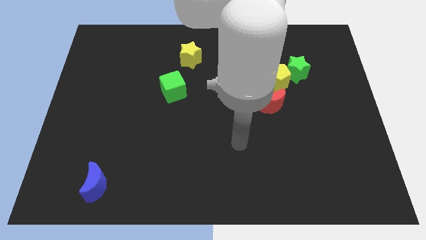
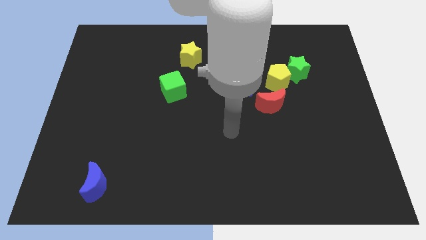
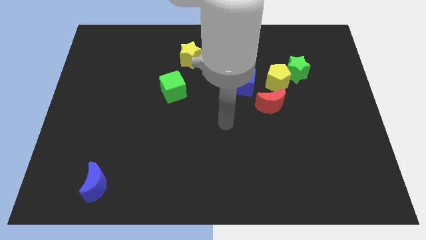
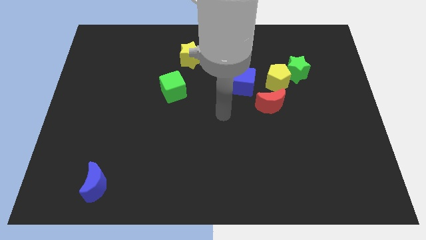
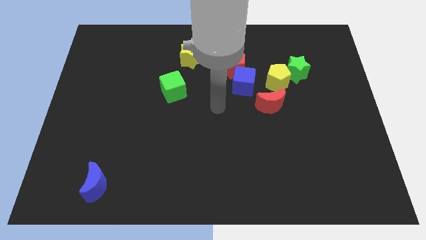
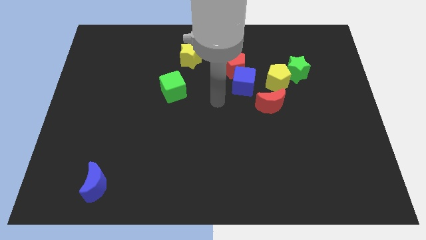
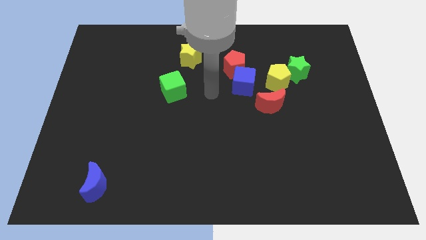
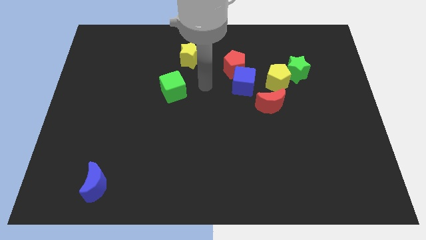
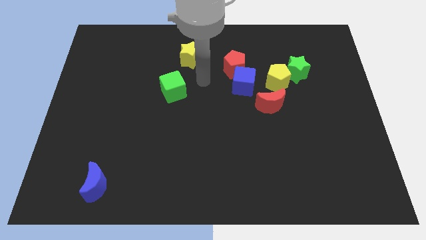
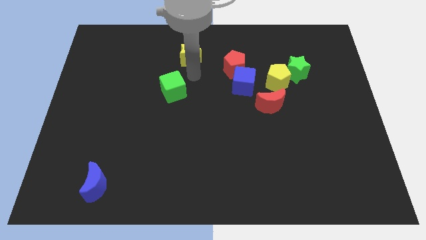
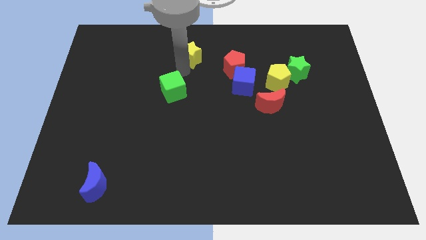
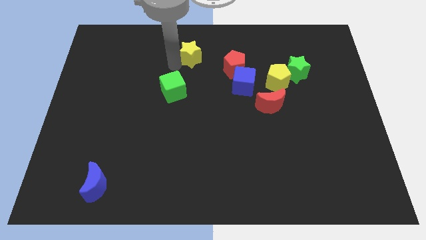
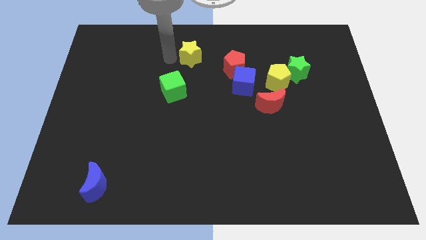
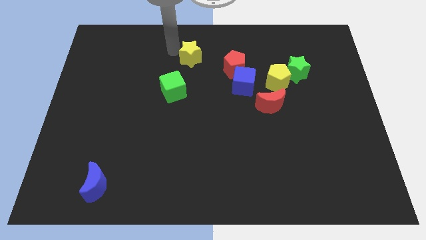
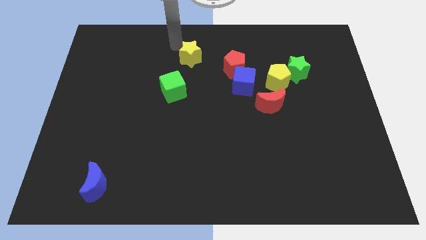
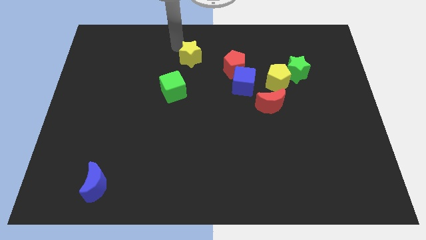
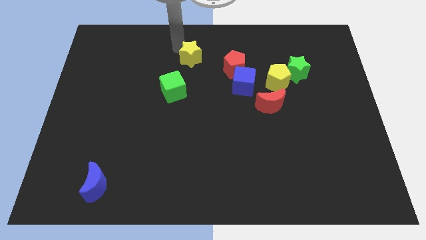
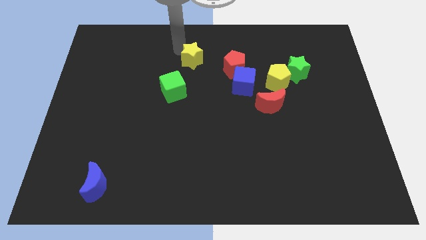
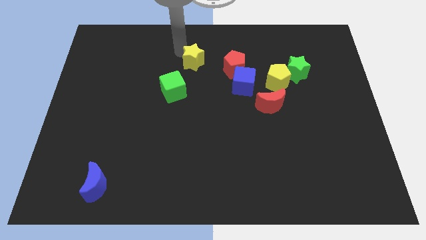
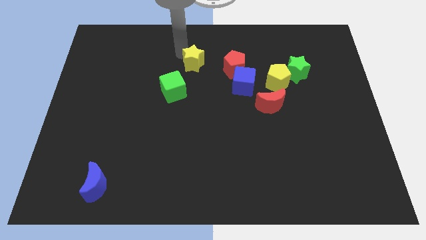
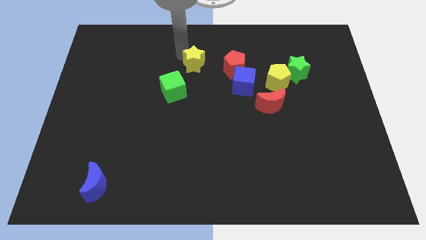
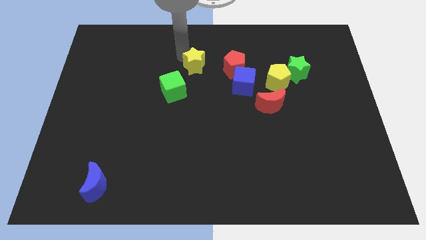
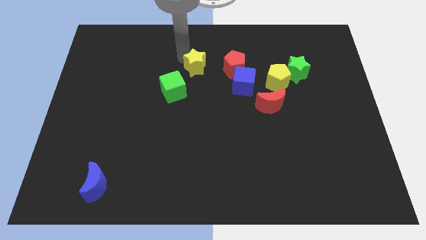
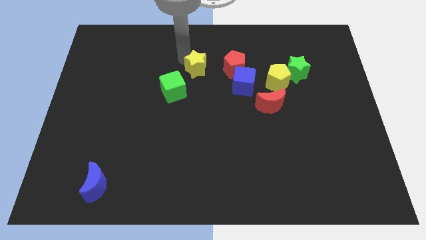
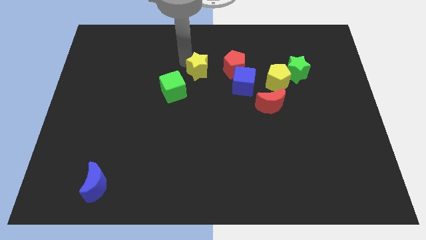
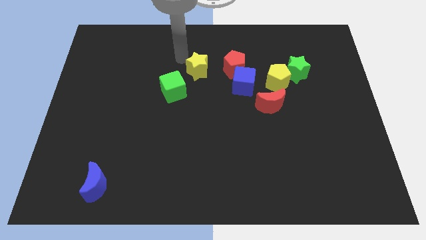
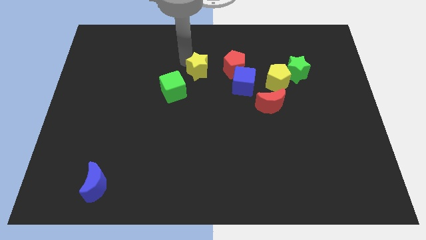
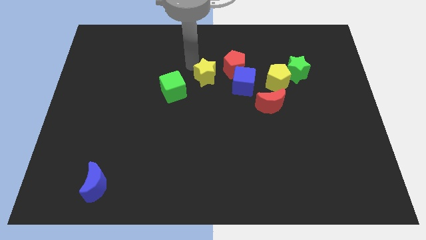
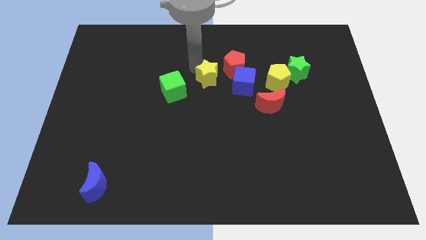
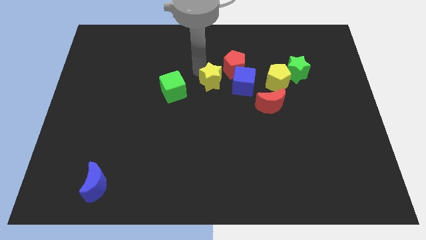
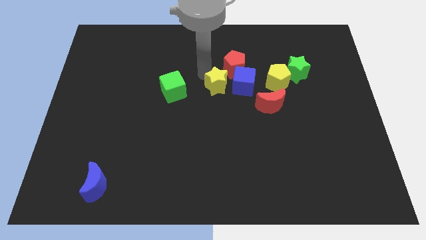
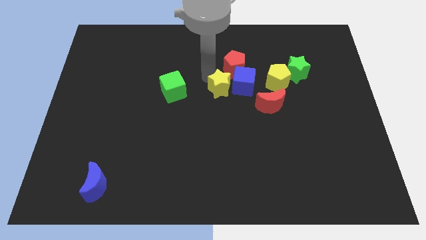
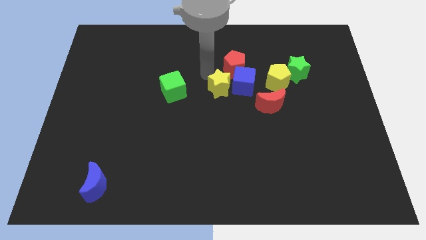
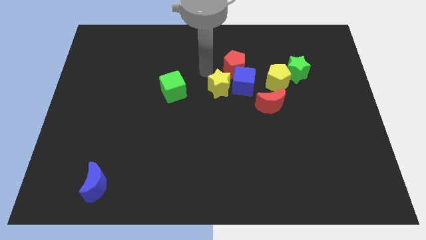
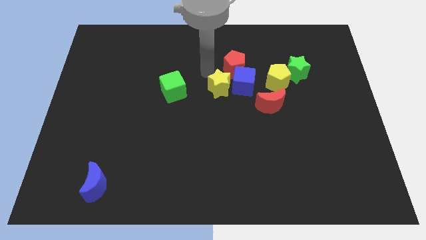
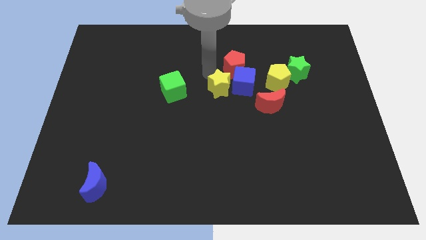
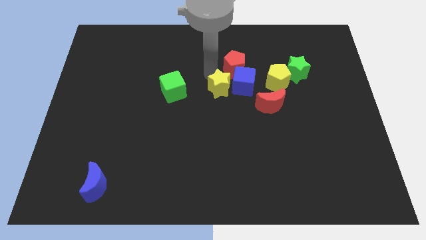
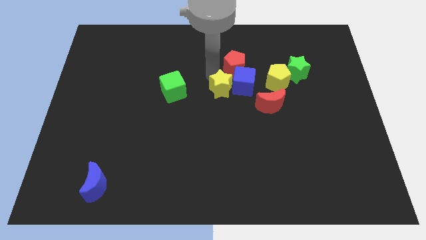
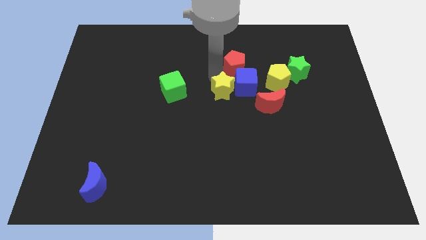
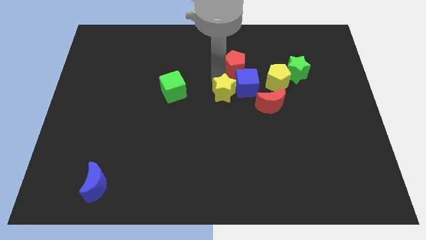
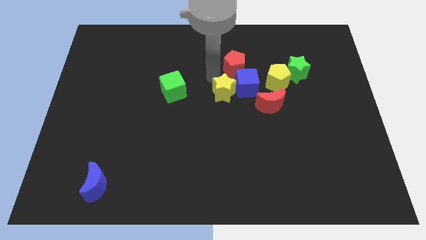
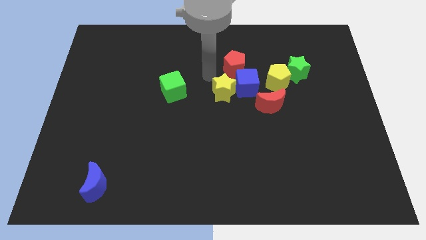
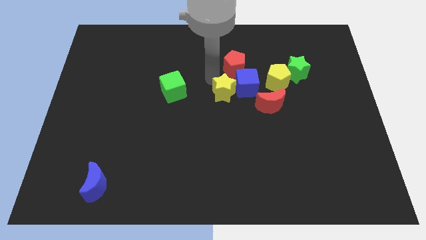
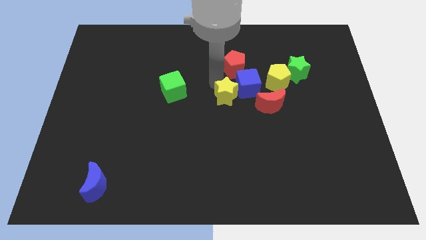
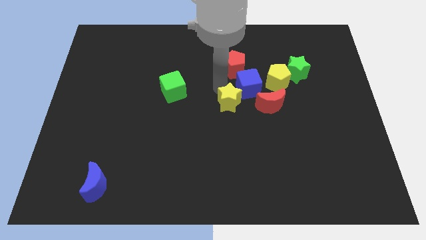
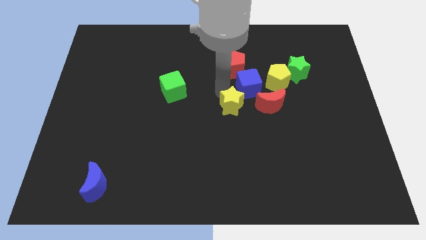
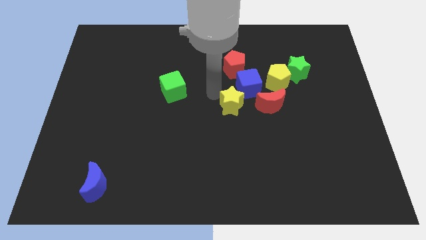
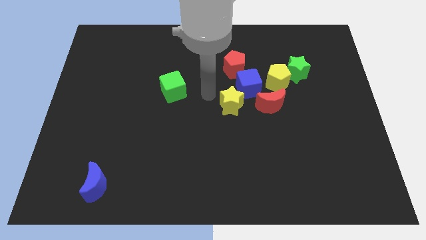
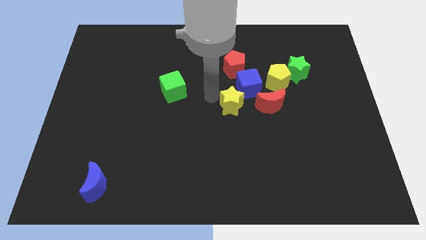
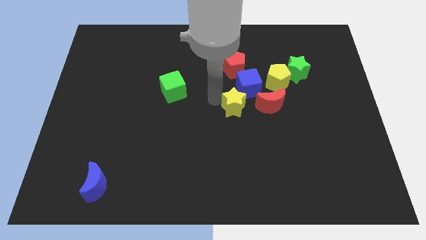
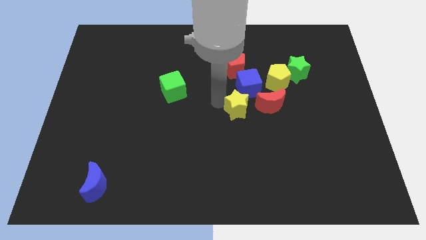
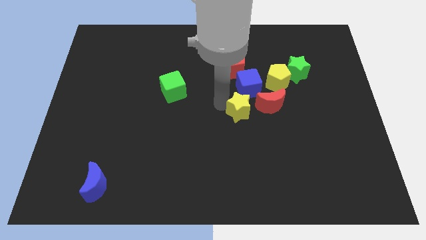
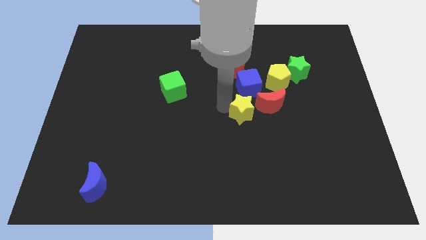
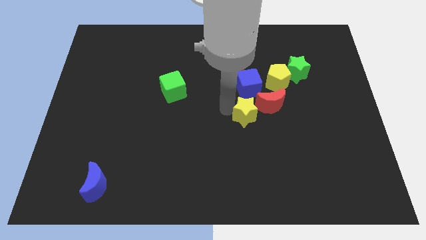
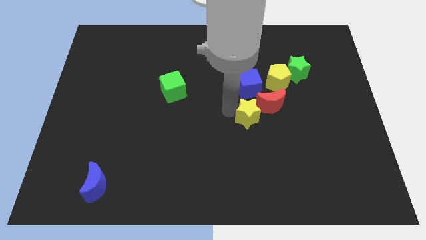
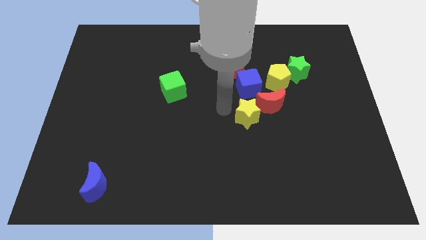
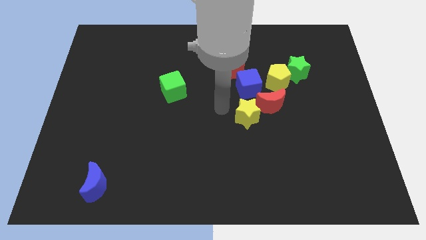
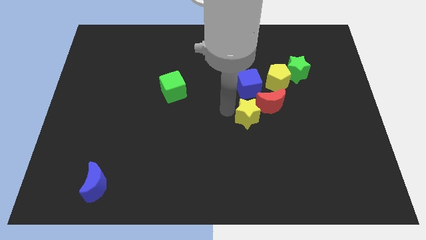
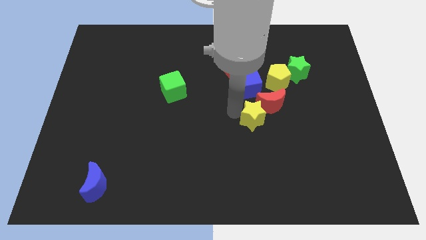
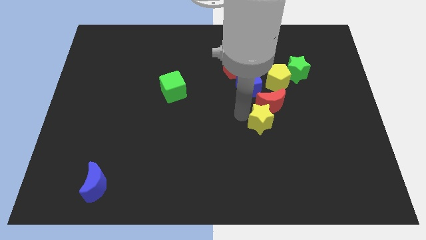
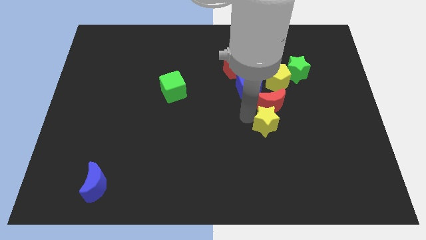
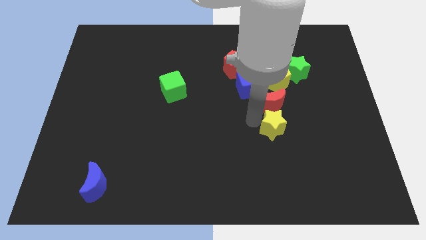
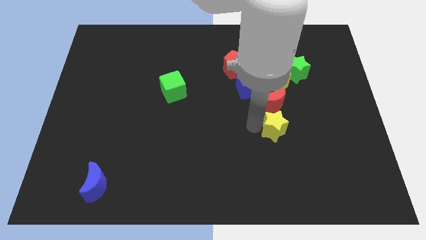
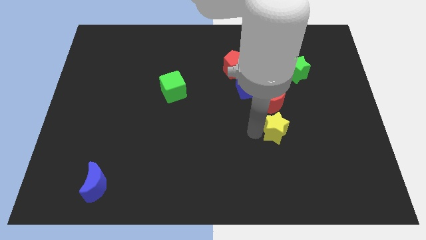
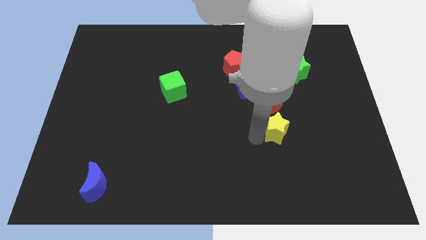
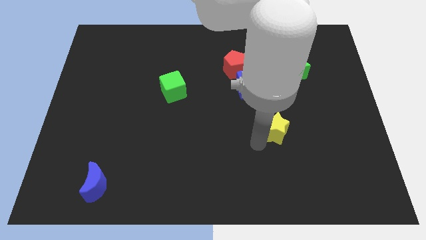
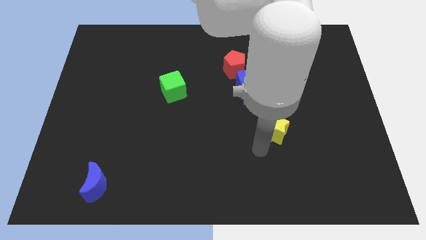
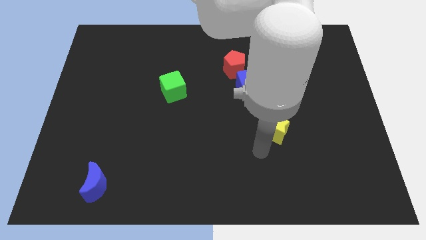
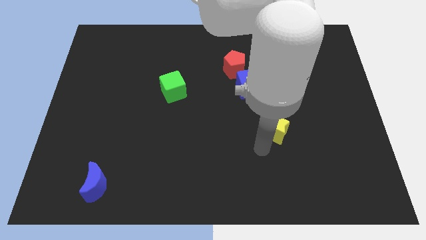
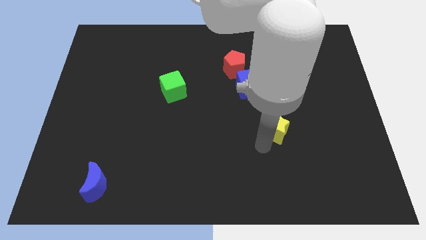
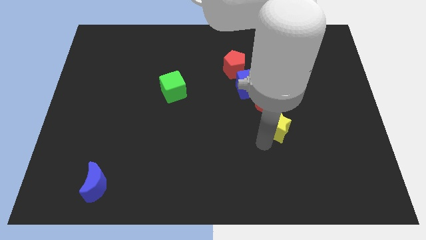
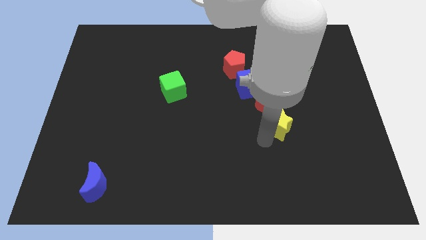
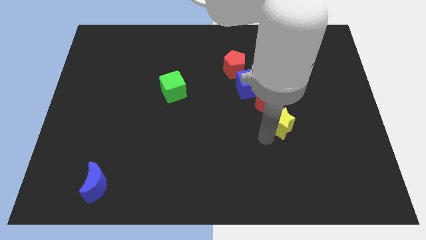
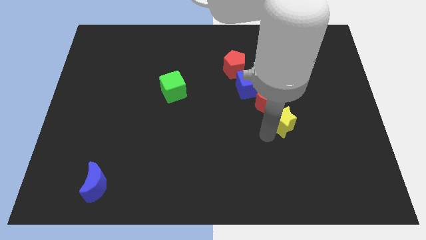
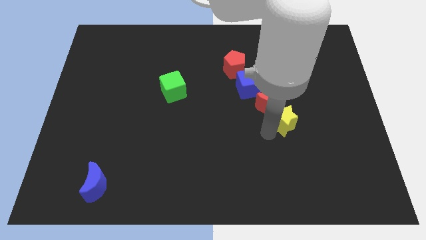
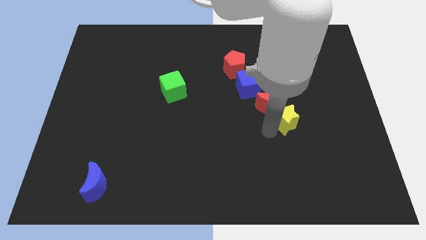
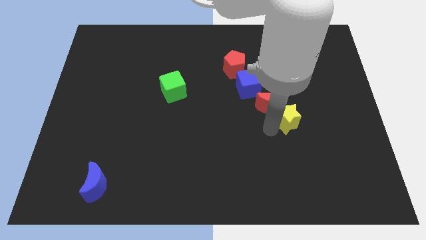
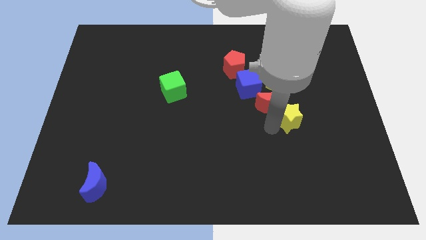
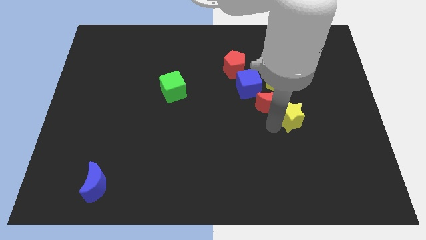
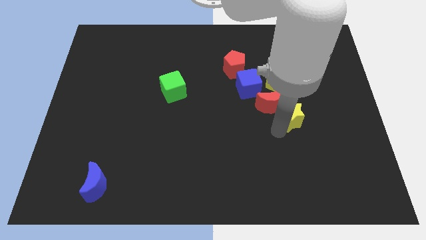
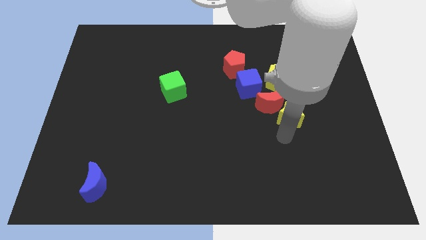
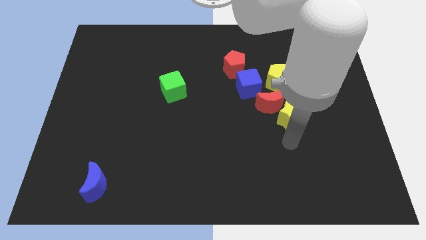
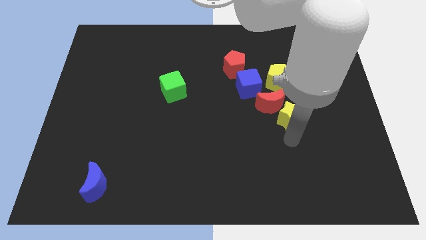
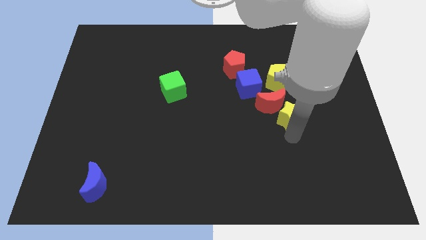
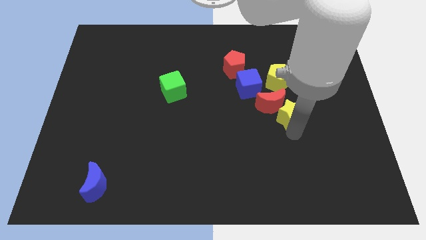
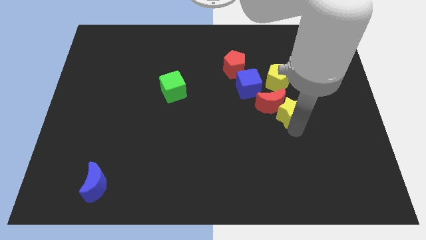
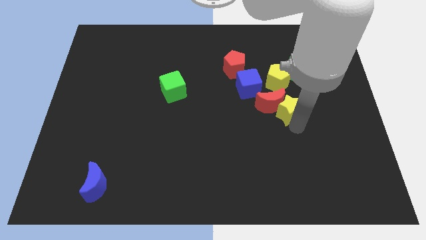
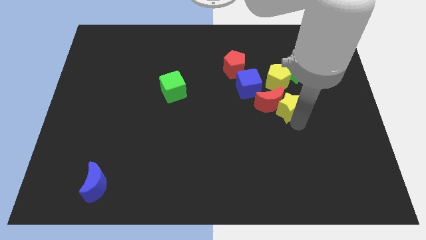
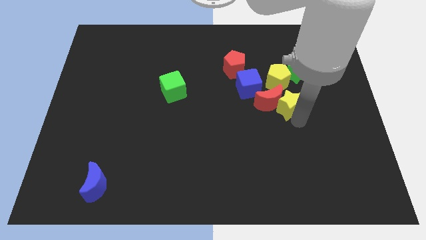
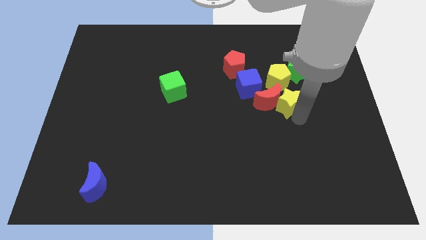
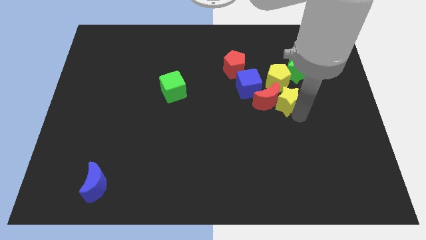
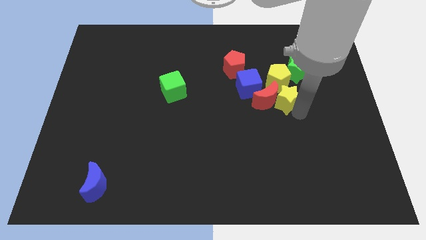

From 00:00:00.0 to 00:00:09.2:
put the yellow star to the right side of the blue cube
